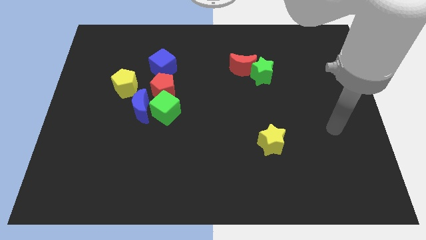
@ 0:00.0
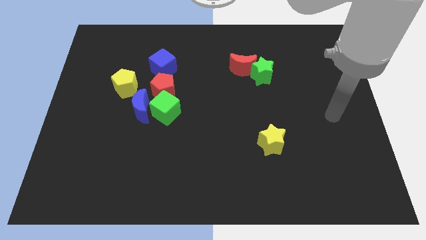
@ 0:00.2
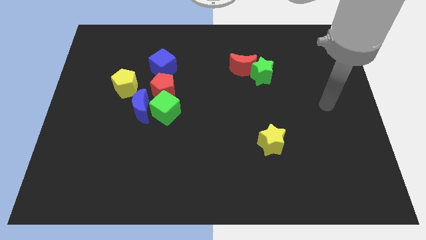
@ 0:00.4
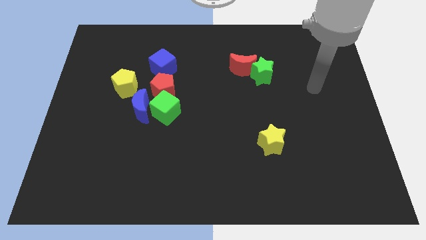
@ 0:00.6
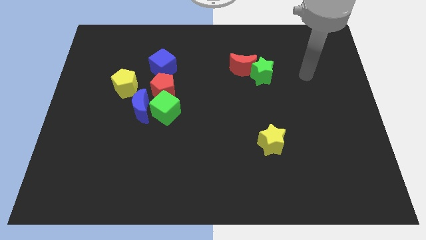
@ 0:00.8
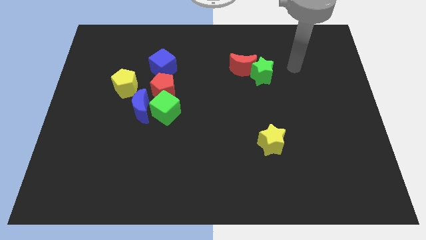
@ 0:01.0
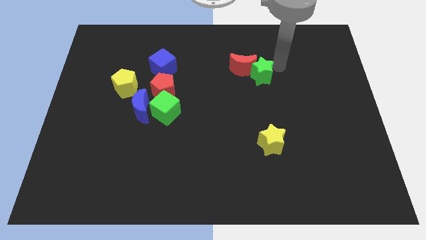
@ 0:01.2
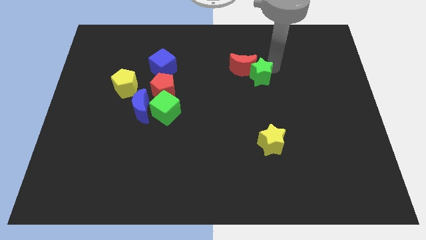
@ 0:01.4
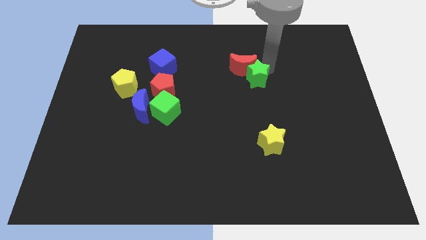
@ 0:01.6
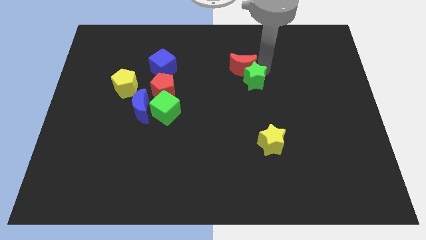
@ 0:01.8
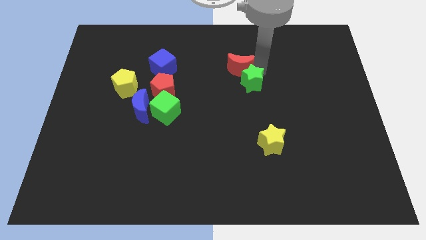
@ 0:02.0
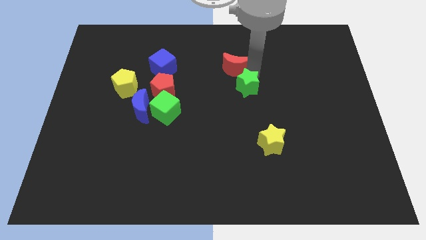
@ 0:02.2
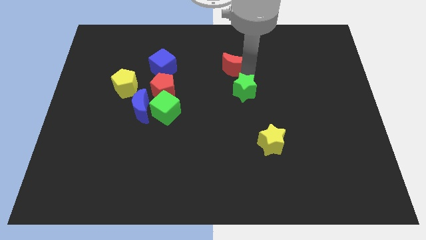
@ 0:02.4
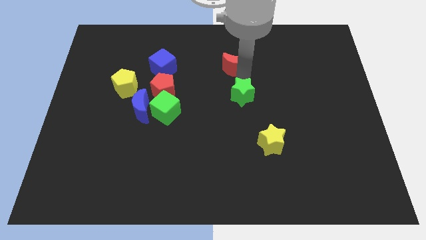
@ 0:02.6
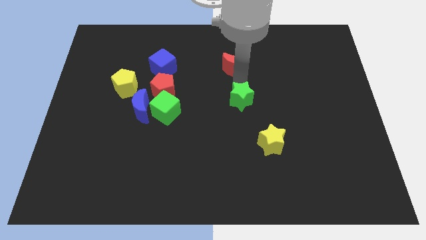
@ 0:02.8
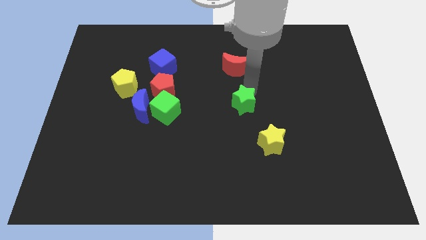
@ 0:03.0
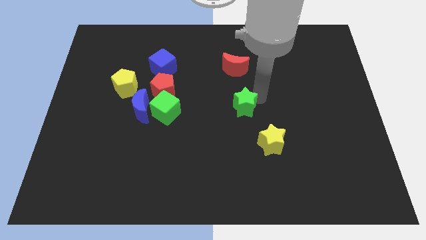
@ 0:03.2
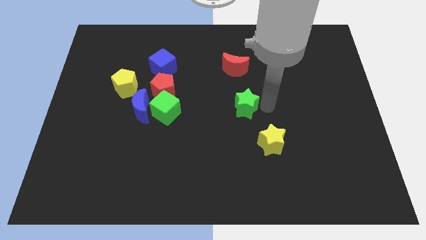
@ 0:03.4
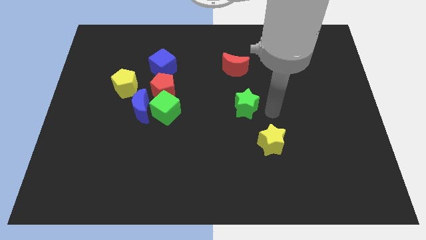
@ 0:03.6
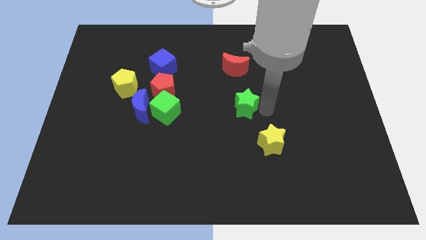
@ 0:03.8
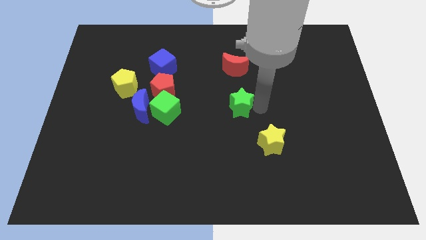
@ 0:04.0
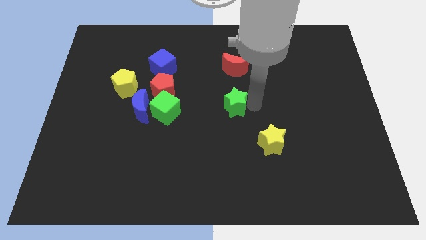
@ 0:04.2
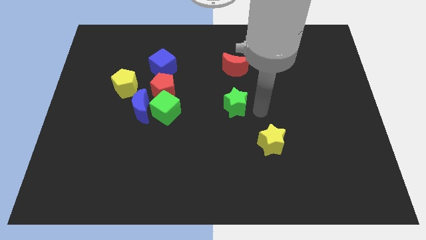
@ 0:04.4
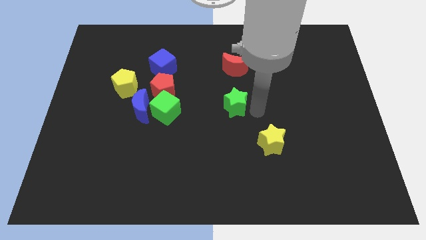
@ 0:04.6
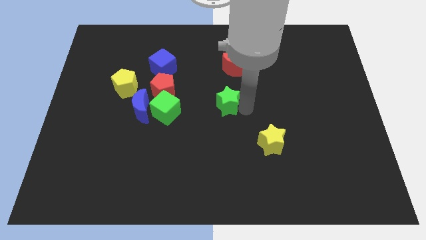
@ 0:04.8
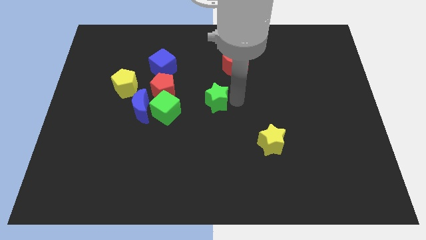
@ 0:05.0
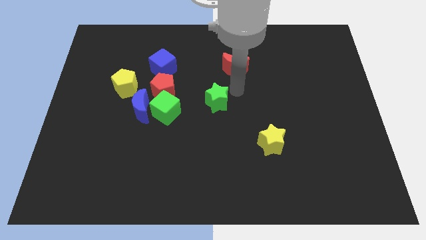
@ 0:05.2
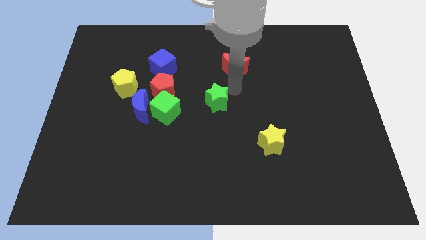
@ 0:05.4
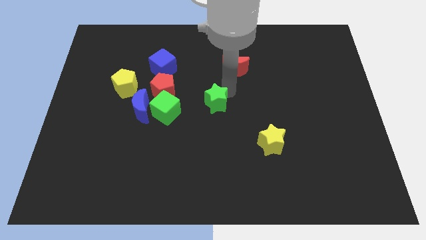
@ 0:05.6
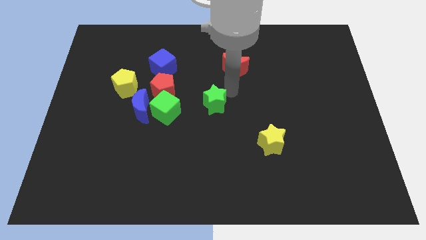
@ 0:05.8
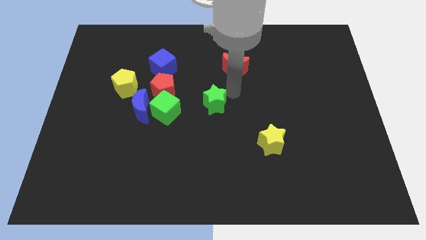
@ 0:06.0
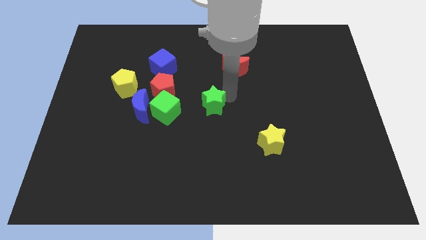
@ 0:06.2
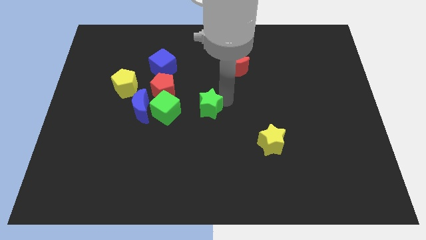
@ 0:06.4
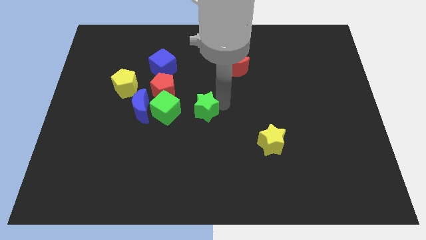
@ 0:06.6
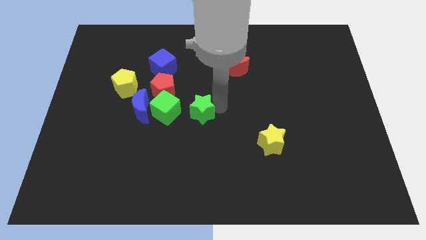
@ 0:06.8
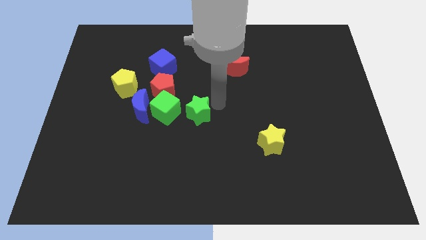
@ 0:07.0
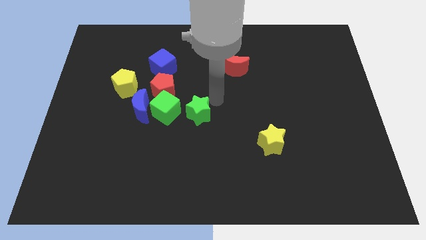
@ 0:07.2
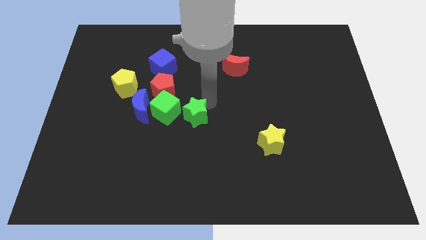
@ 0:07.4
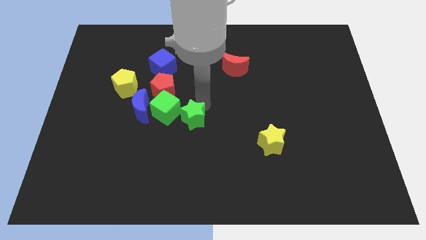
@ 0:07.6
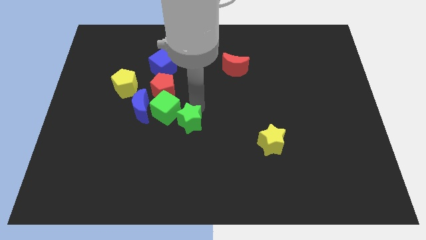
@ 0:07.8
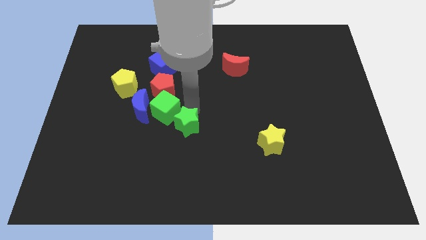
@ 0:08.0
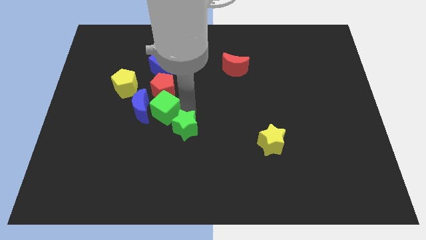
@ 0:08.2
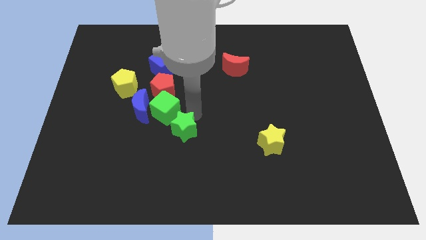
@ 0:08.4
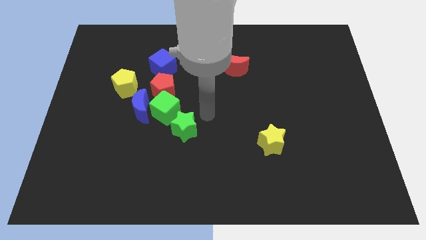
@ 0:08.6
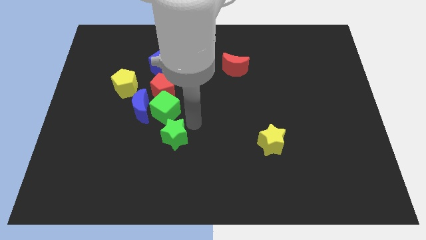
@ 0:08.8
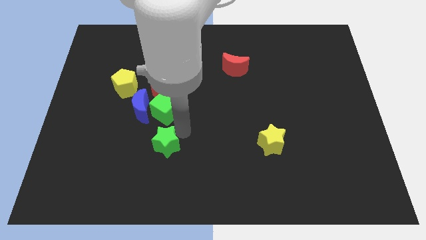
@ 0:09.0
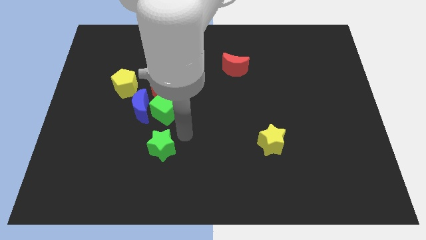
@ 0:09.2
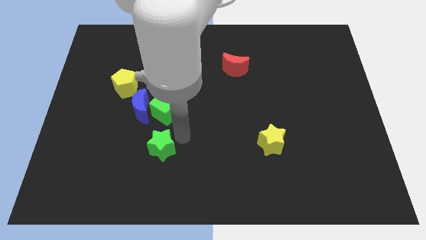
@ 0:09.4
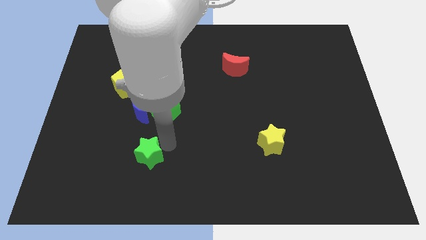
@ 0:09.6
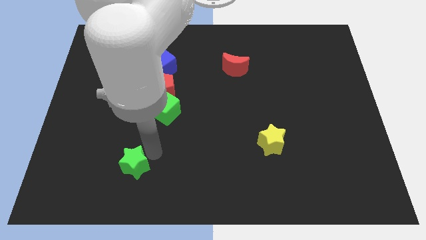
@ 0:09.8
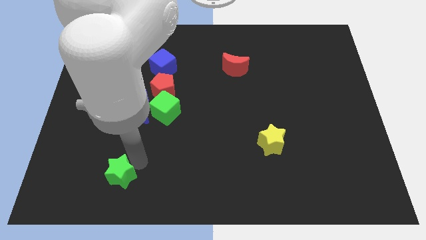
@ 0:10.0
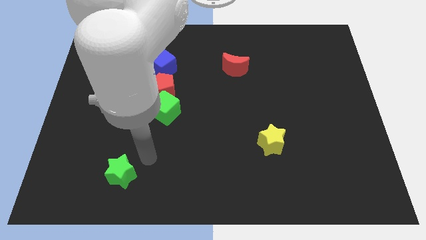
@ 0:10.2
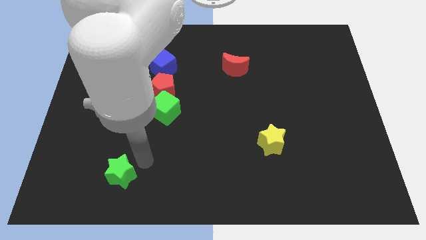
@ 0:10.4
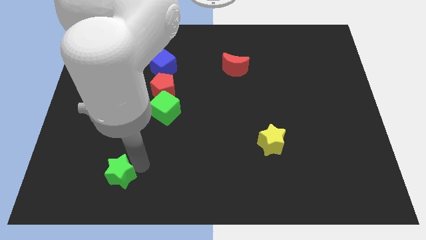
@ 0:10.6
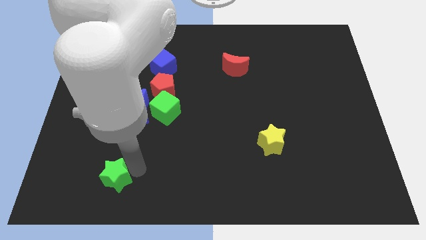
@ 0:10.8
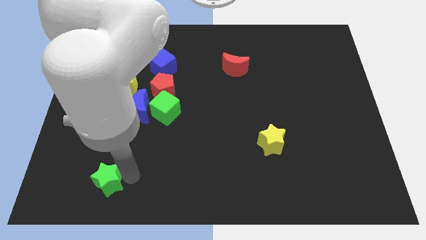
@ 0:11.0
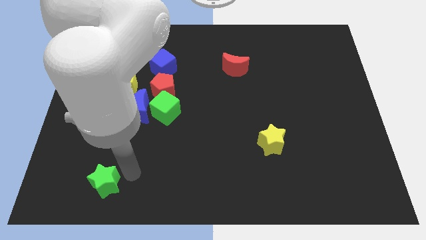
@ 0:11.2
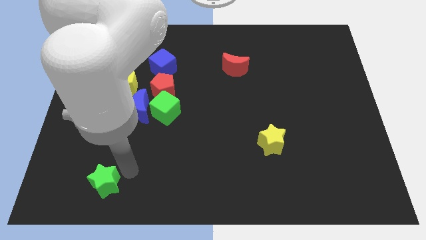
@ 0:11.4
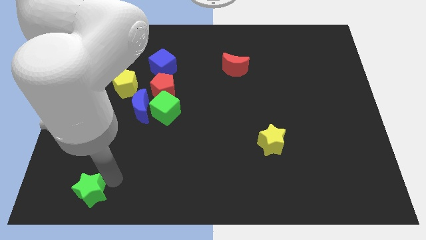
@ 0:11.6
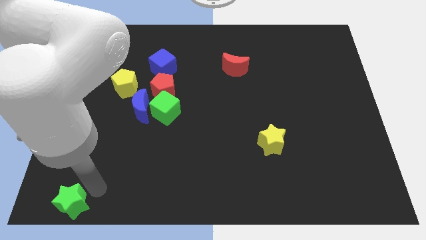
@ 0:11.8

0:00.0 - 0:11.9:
push the green star to the bottom left corner

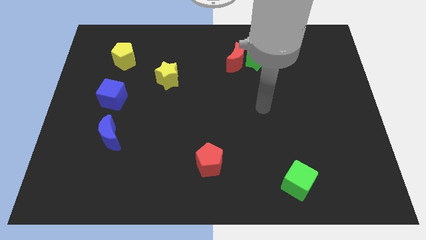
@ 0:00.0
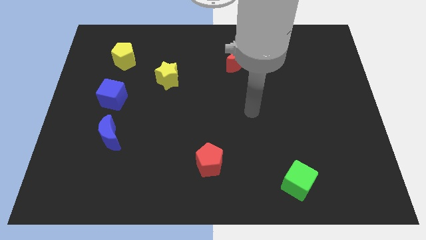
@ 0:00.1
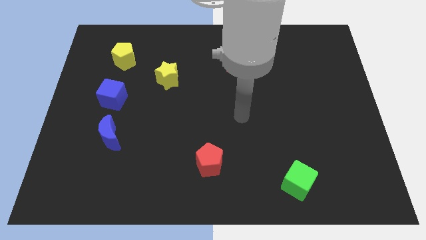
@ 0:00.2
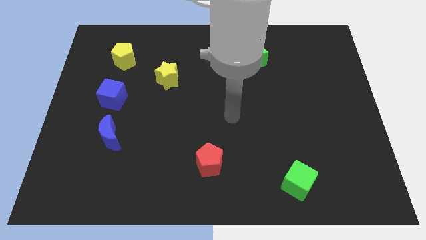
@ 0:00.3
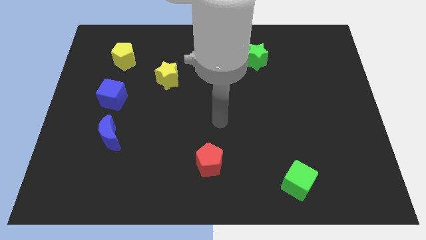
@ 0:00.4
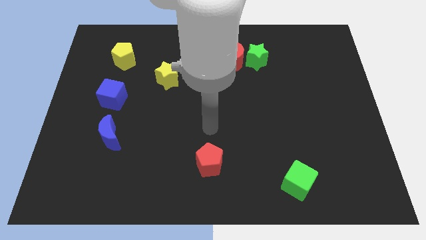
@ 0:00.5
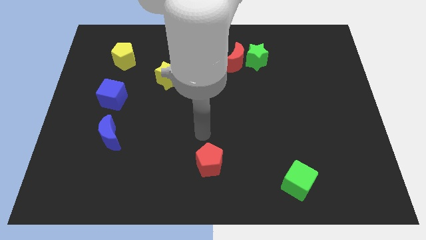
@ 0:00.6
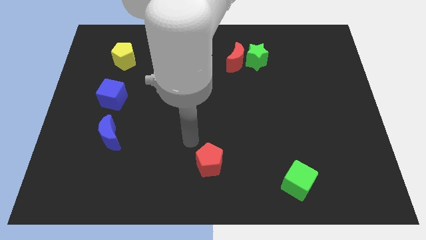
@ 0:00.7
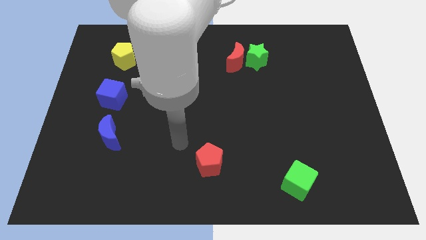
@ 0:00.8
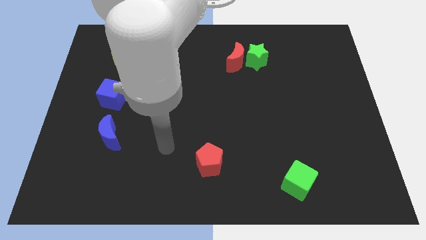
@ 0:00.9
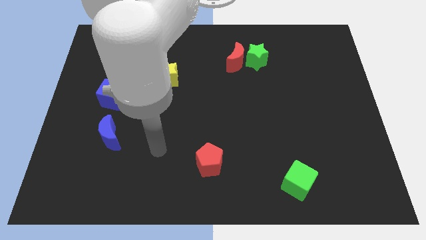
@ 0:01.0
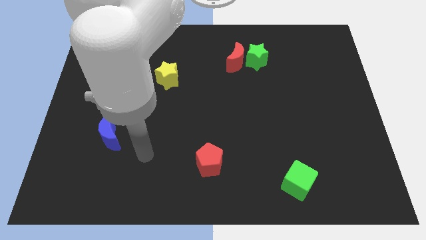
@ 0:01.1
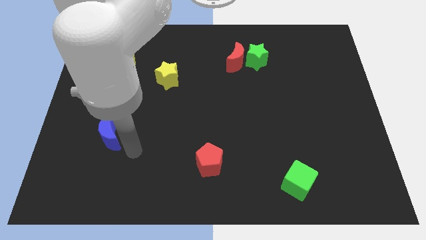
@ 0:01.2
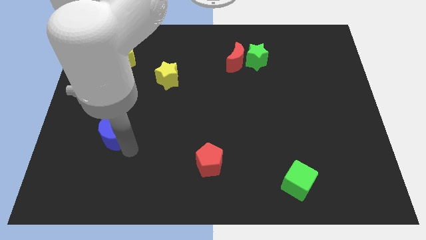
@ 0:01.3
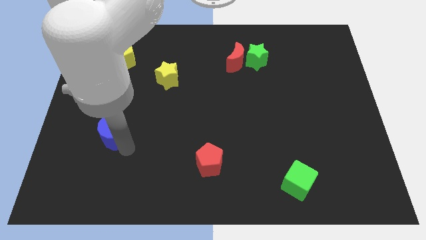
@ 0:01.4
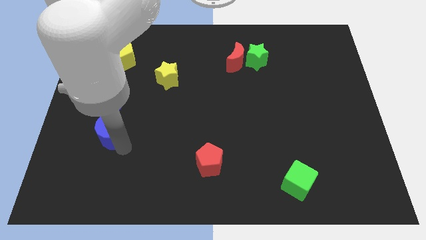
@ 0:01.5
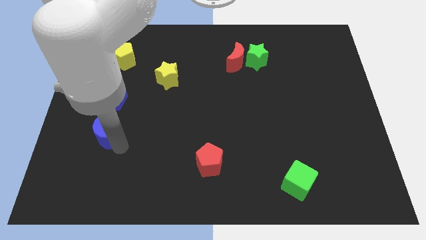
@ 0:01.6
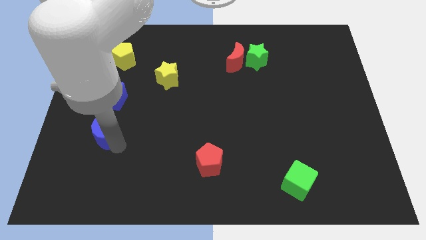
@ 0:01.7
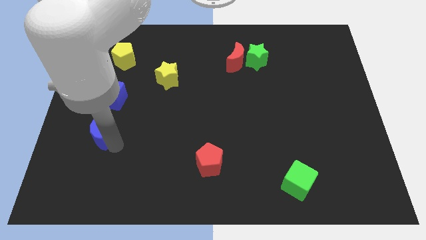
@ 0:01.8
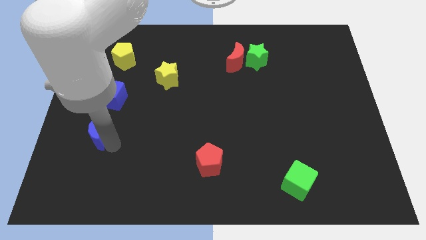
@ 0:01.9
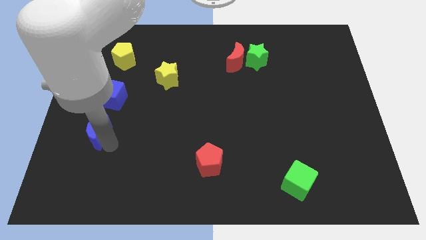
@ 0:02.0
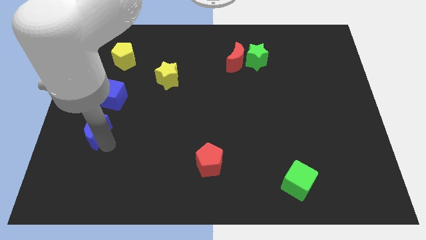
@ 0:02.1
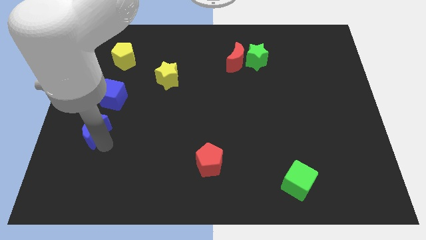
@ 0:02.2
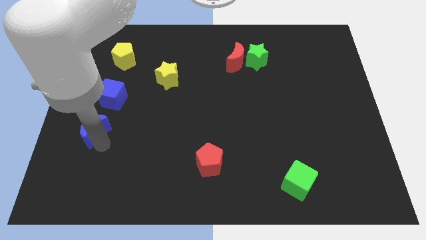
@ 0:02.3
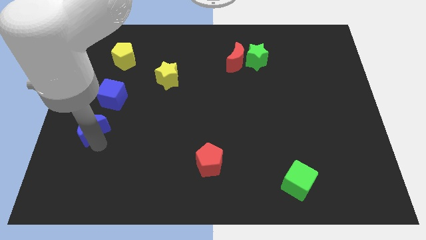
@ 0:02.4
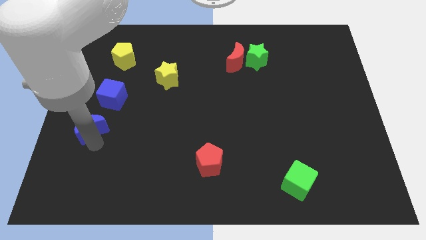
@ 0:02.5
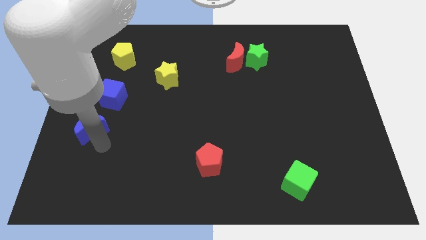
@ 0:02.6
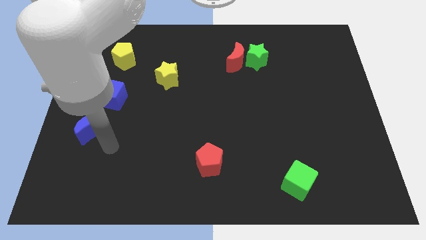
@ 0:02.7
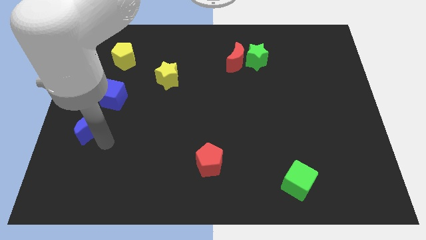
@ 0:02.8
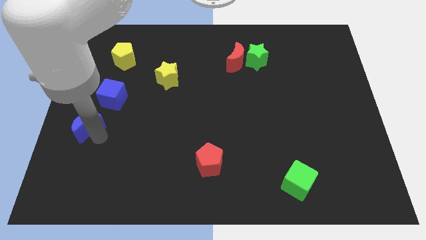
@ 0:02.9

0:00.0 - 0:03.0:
put the blue moon to the left side of the board
